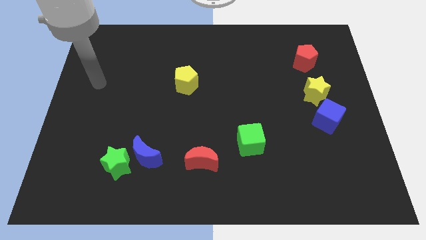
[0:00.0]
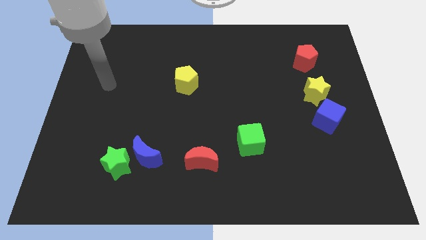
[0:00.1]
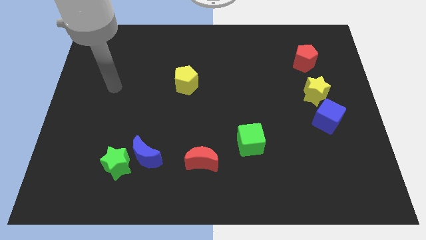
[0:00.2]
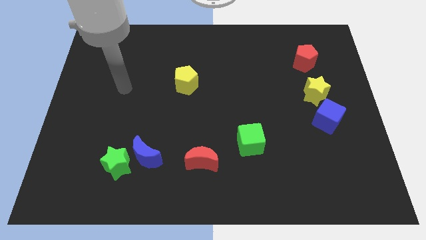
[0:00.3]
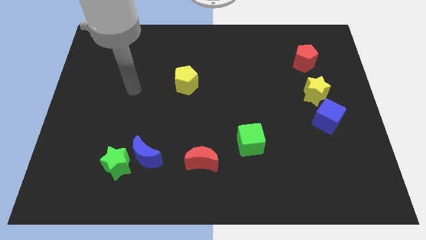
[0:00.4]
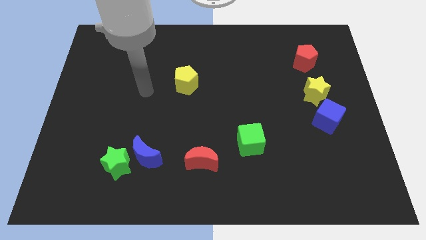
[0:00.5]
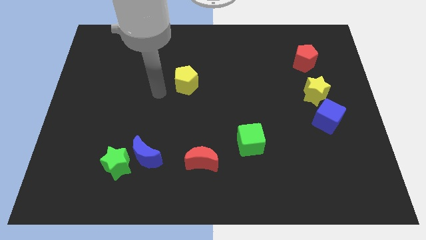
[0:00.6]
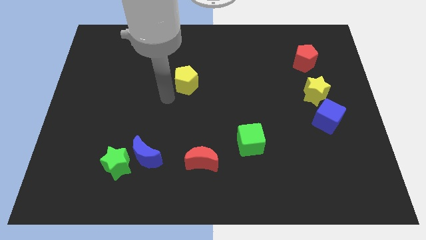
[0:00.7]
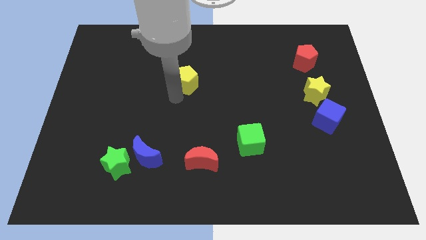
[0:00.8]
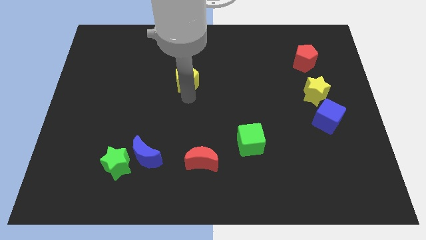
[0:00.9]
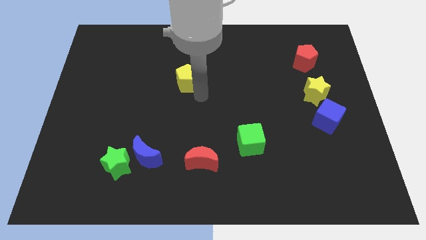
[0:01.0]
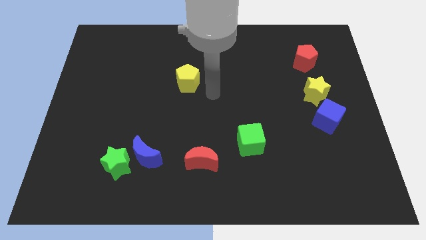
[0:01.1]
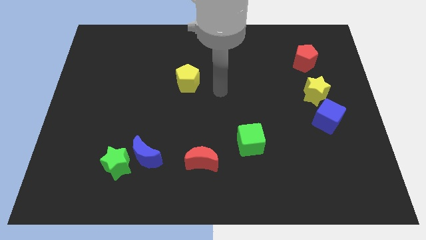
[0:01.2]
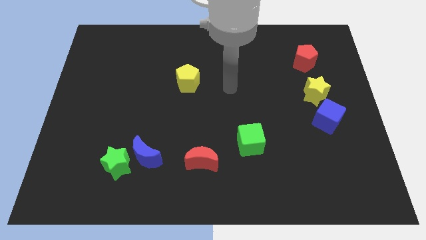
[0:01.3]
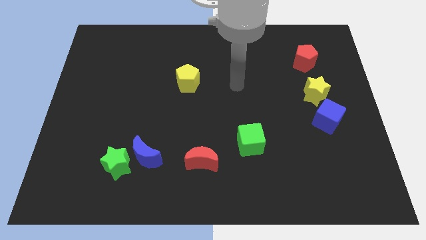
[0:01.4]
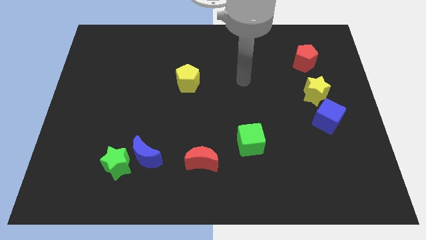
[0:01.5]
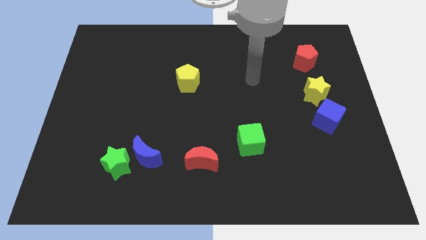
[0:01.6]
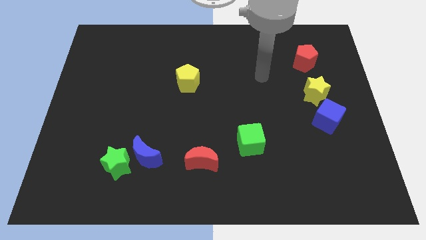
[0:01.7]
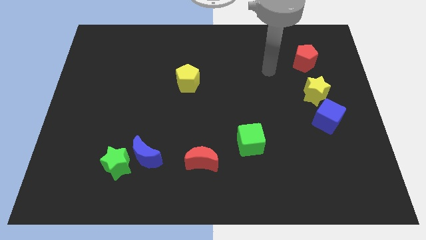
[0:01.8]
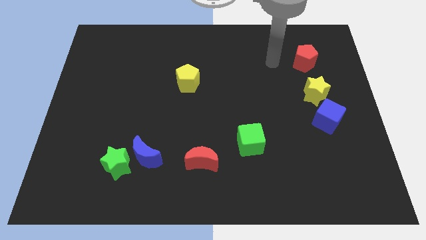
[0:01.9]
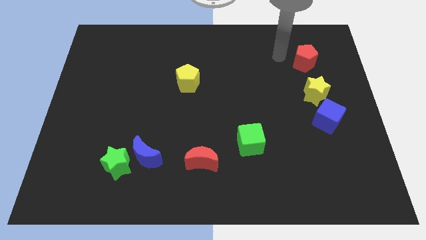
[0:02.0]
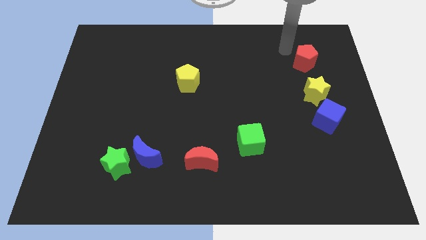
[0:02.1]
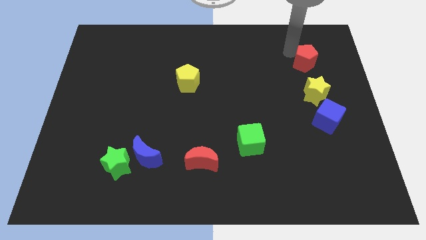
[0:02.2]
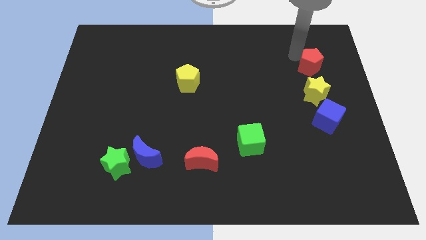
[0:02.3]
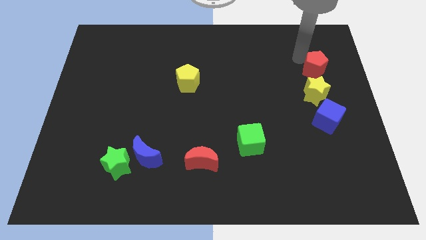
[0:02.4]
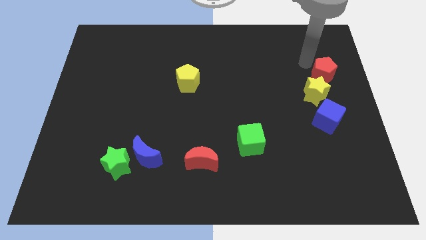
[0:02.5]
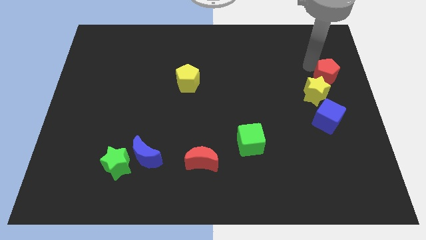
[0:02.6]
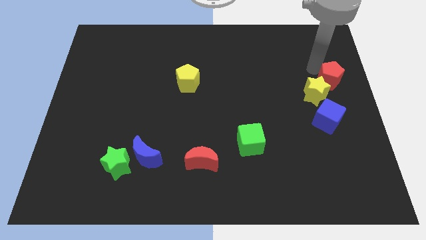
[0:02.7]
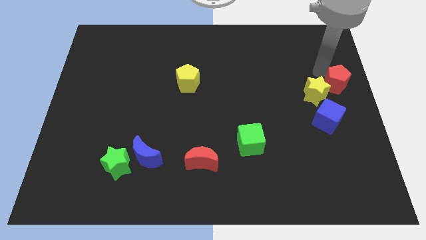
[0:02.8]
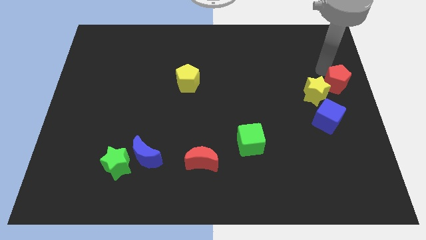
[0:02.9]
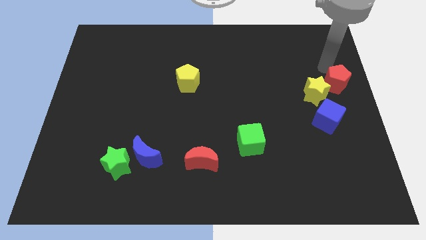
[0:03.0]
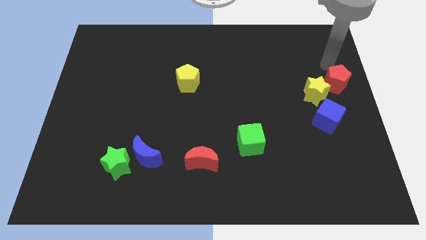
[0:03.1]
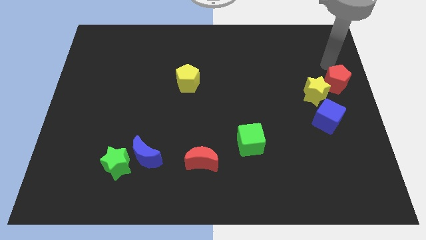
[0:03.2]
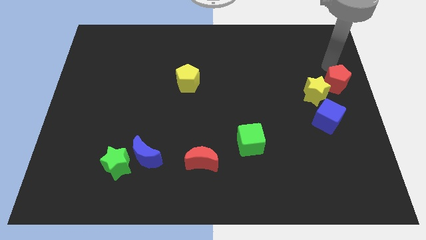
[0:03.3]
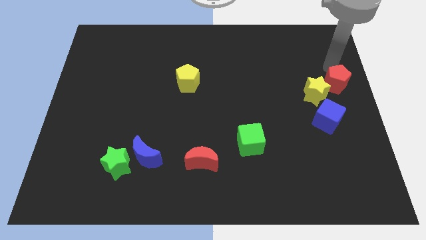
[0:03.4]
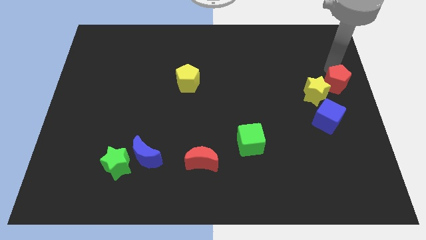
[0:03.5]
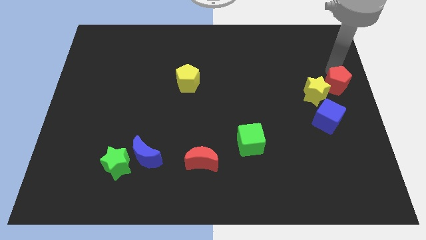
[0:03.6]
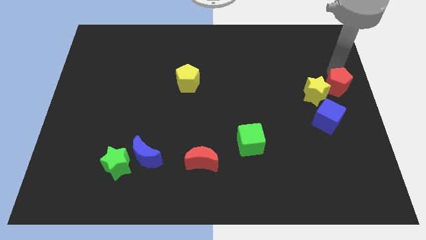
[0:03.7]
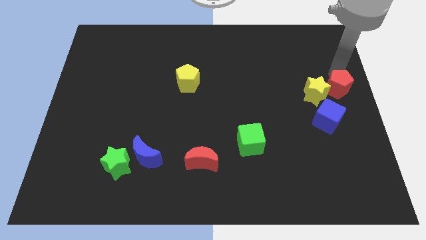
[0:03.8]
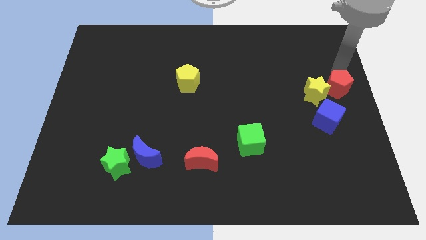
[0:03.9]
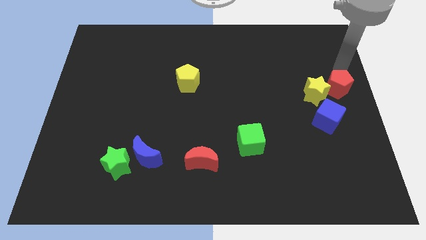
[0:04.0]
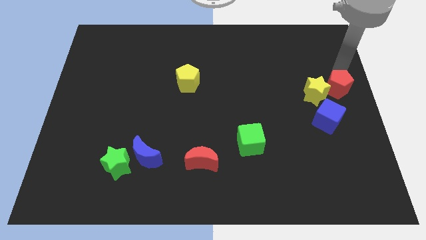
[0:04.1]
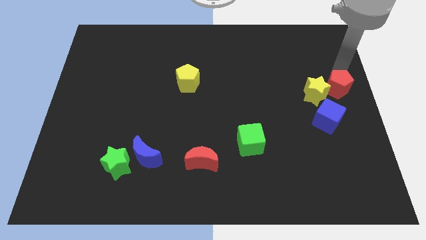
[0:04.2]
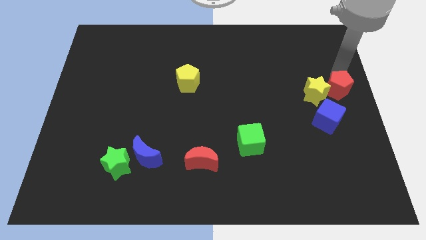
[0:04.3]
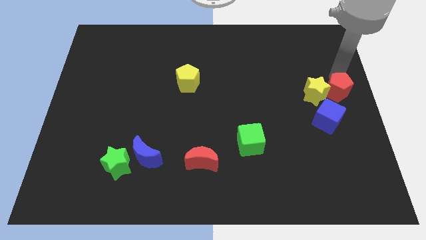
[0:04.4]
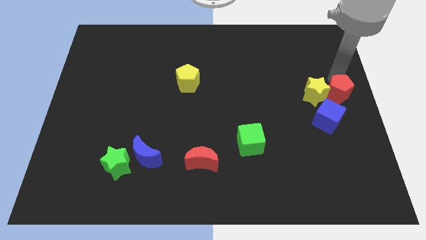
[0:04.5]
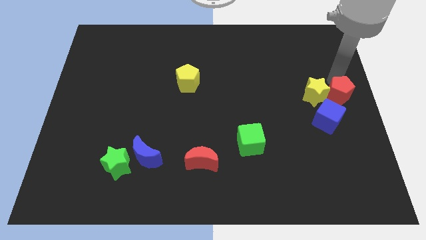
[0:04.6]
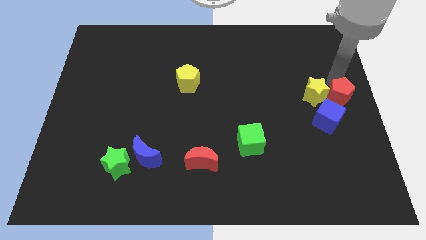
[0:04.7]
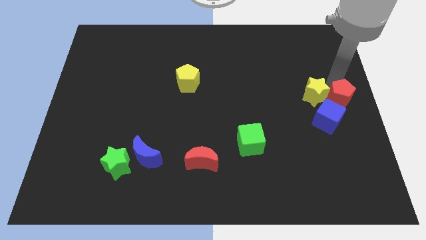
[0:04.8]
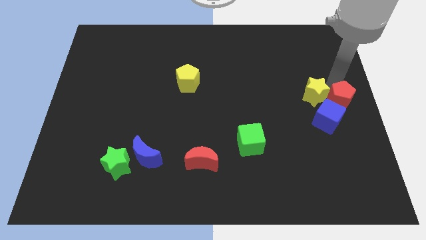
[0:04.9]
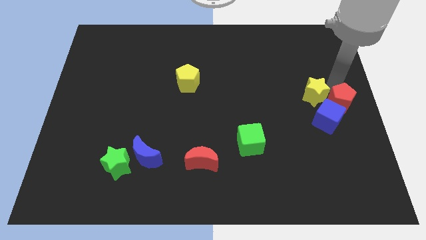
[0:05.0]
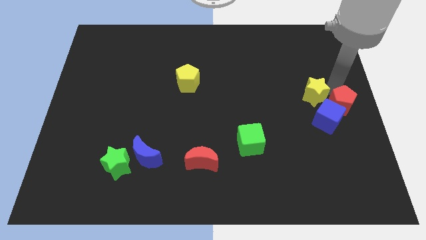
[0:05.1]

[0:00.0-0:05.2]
put the red pentagon to the blue cube

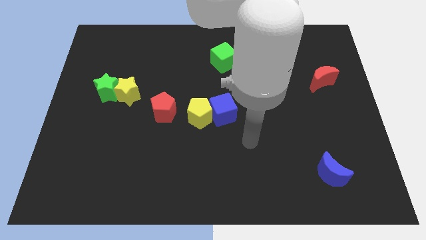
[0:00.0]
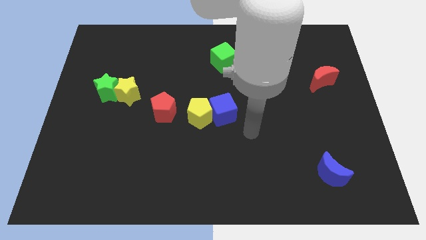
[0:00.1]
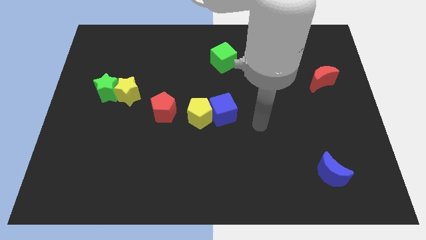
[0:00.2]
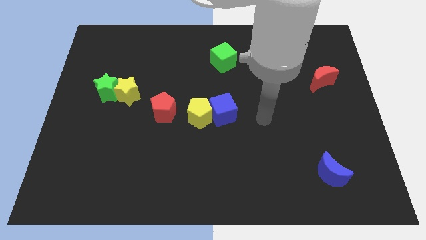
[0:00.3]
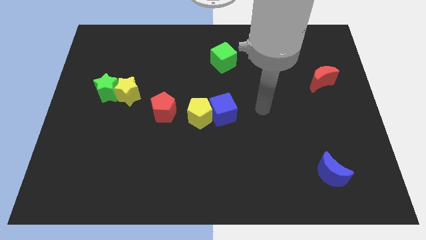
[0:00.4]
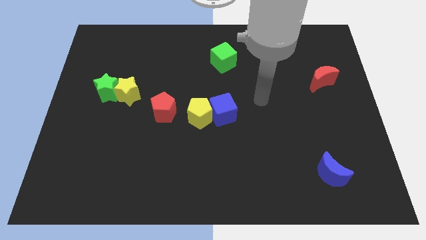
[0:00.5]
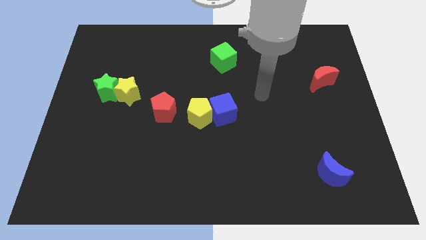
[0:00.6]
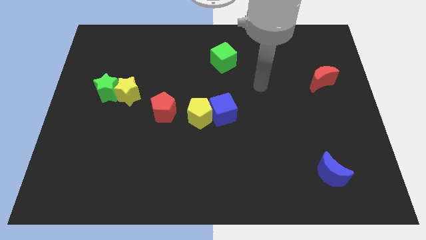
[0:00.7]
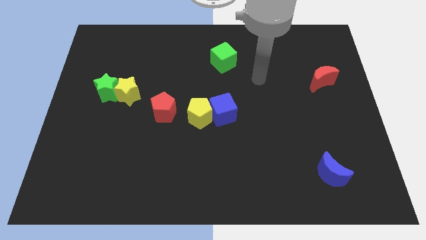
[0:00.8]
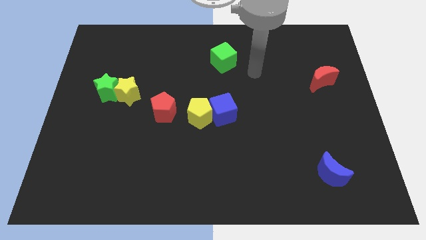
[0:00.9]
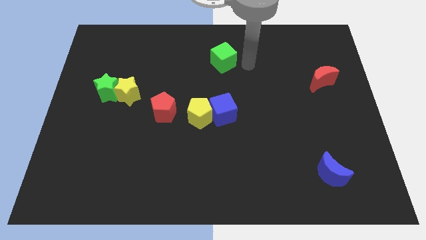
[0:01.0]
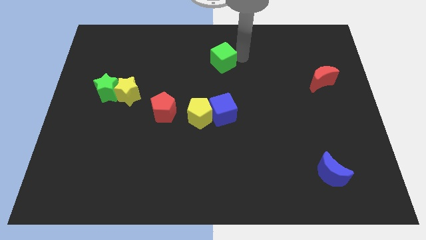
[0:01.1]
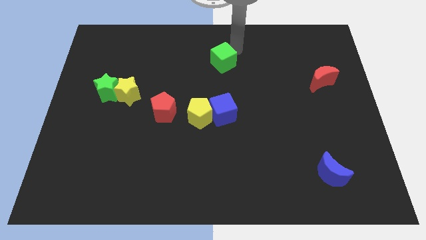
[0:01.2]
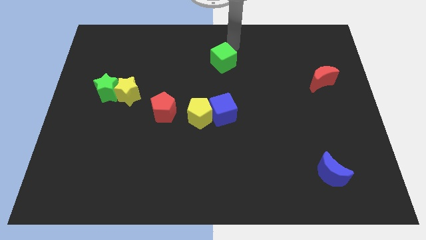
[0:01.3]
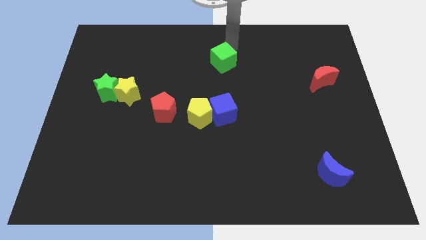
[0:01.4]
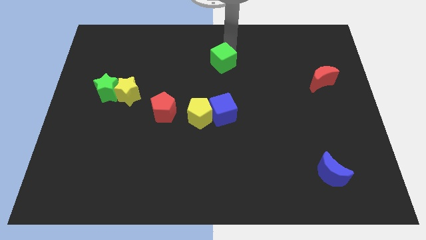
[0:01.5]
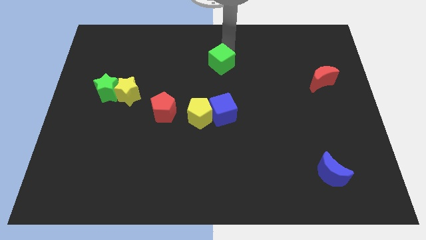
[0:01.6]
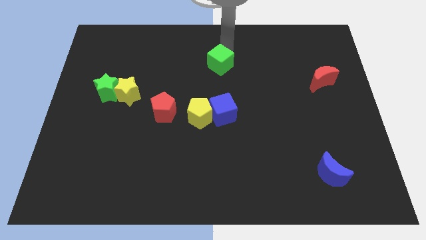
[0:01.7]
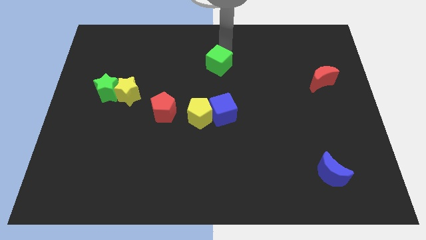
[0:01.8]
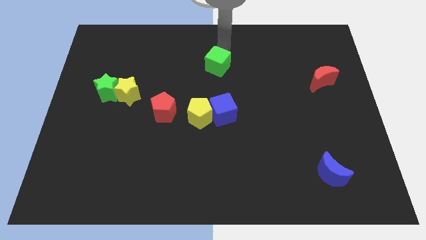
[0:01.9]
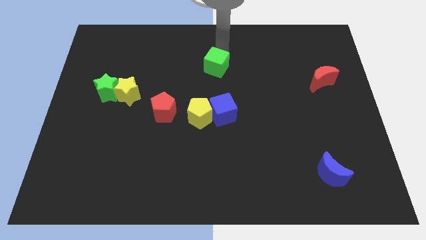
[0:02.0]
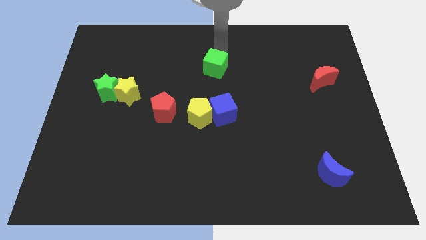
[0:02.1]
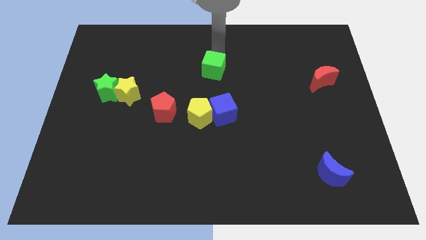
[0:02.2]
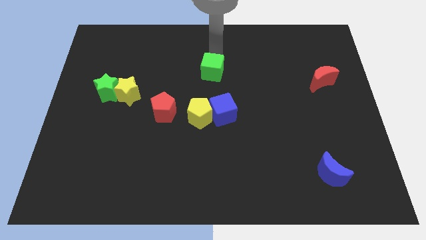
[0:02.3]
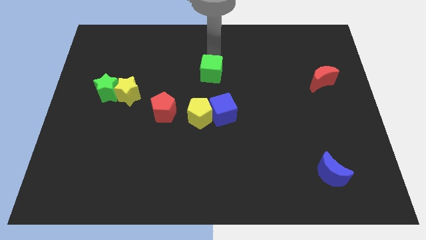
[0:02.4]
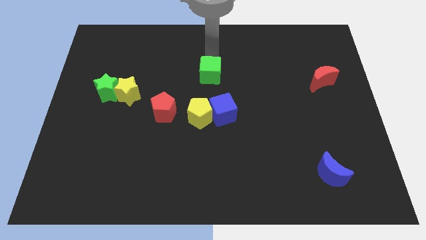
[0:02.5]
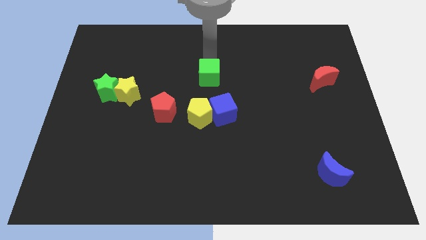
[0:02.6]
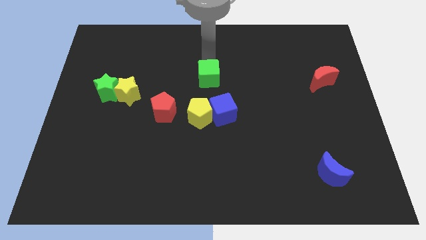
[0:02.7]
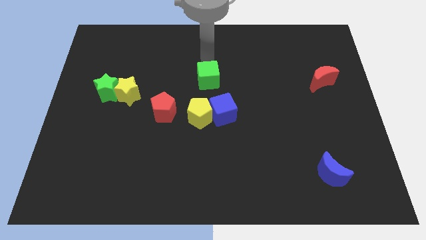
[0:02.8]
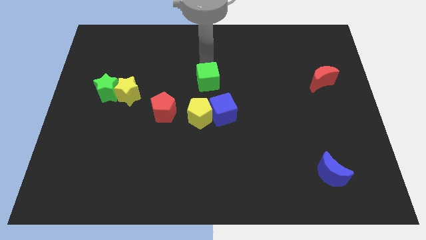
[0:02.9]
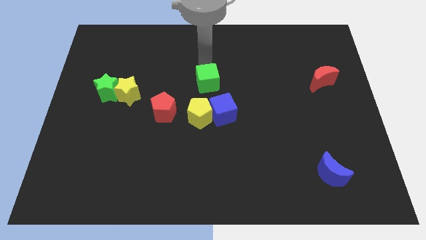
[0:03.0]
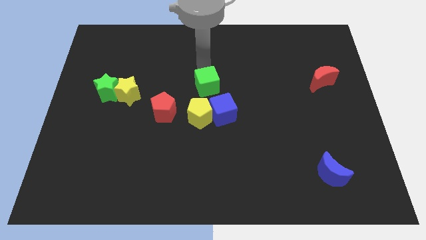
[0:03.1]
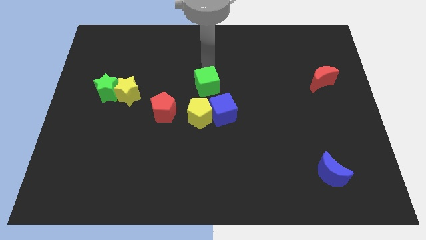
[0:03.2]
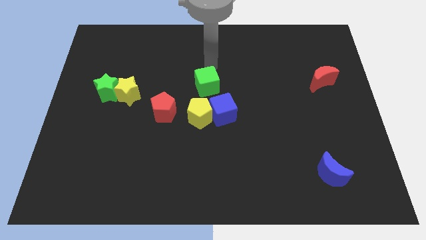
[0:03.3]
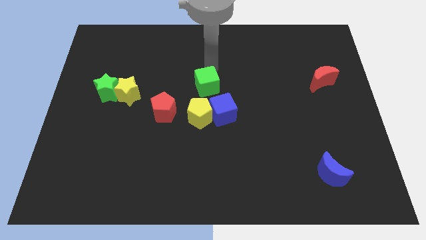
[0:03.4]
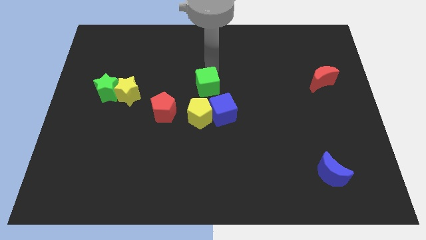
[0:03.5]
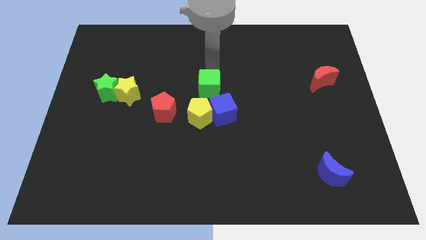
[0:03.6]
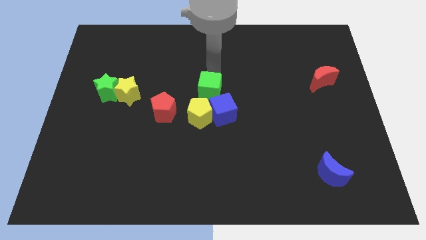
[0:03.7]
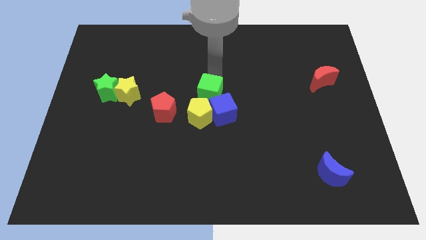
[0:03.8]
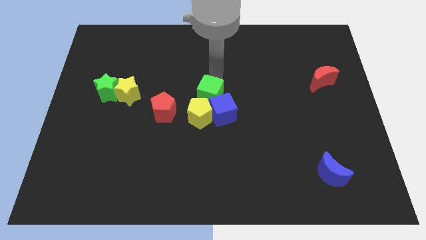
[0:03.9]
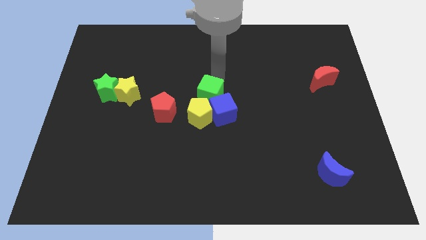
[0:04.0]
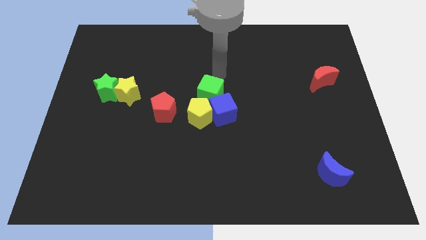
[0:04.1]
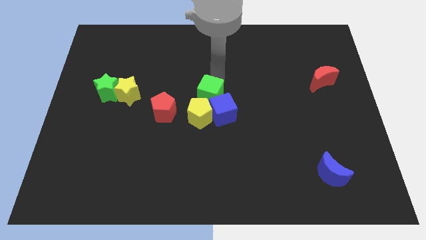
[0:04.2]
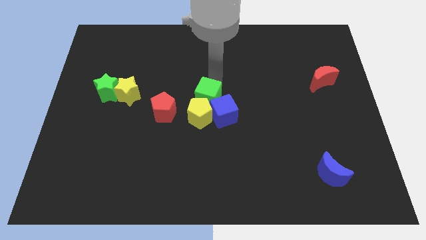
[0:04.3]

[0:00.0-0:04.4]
push the green cube to the yellow pentagon
